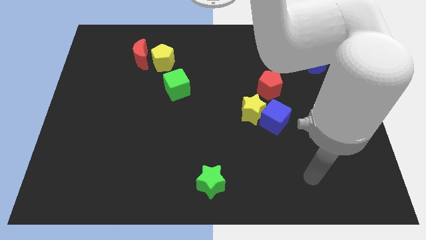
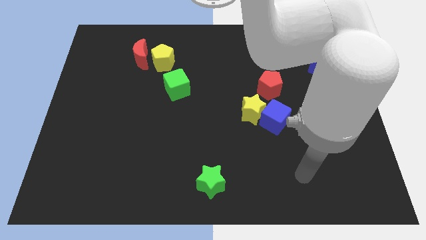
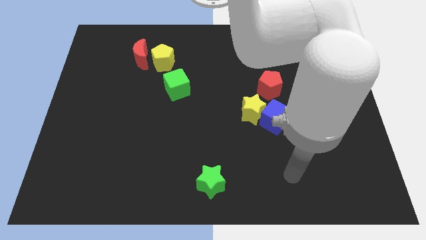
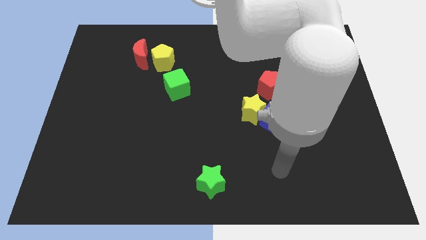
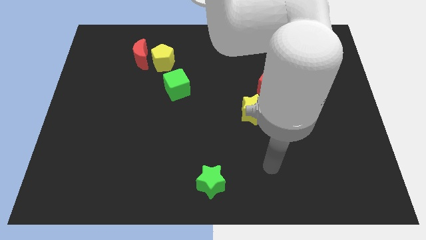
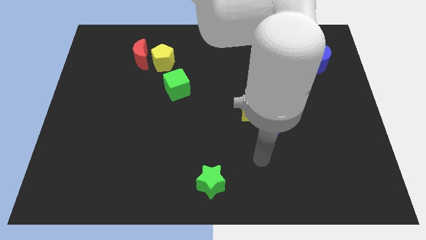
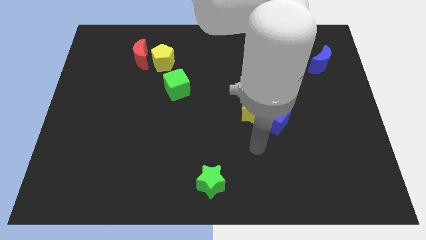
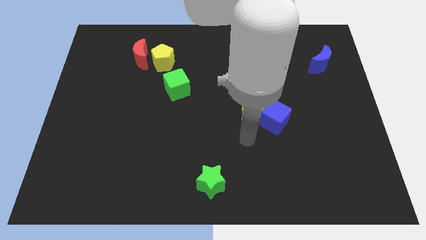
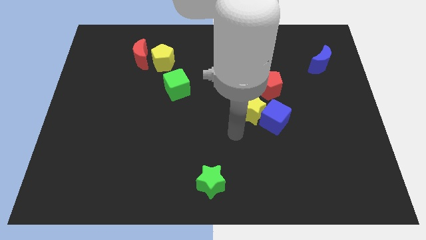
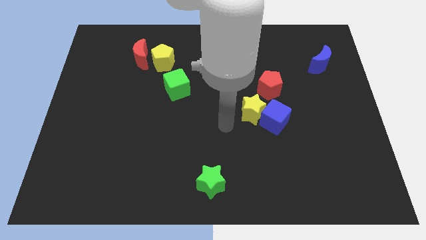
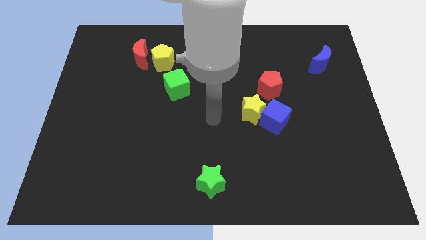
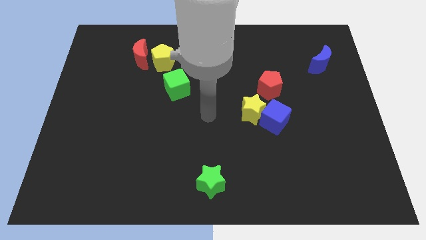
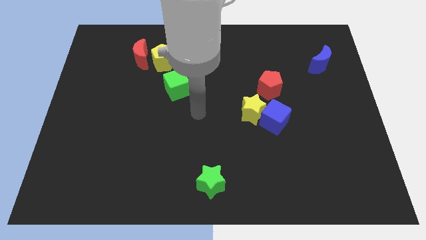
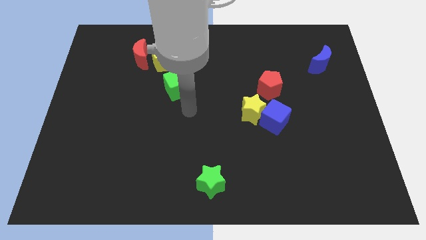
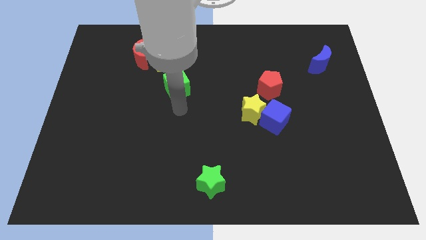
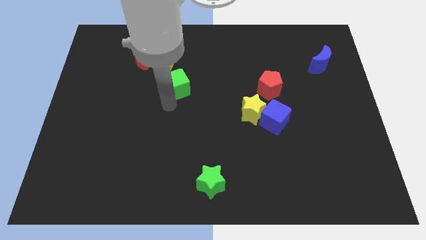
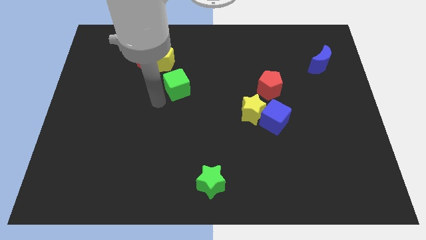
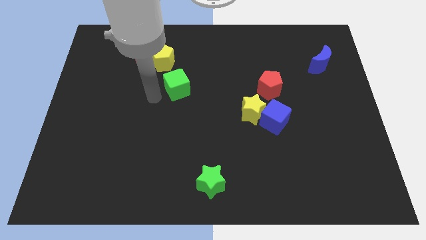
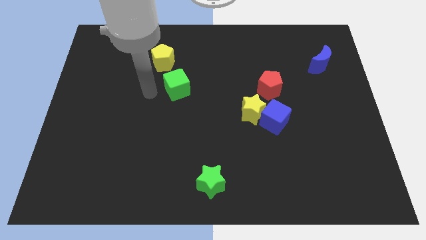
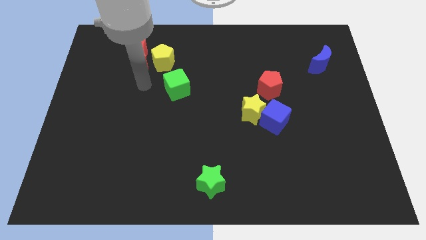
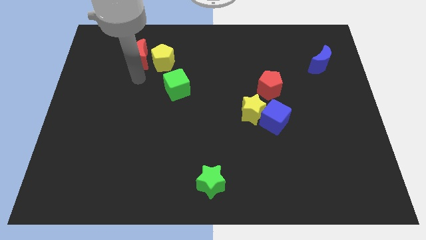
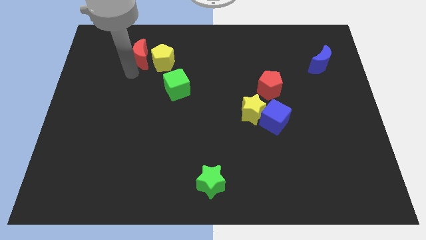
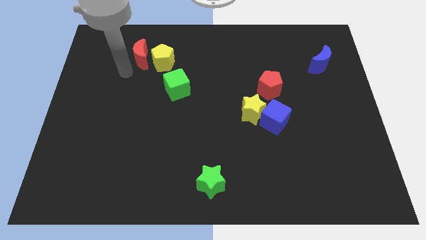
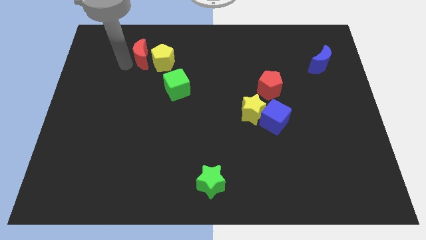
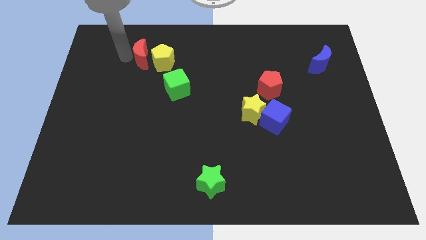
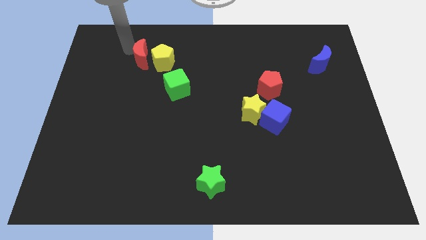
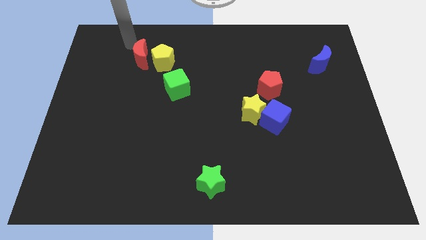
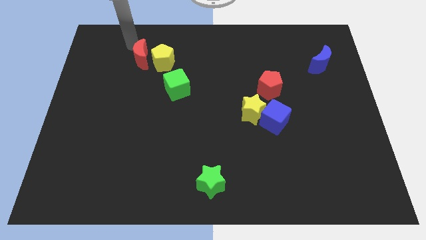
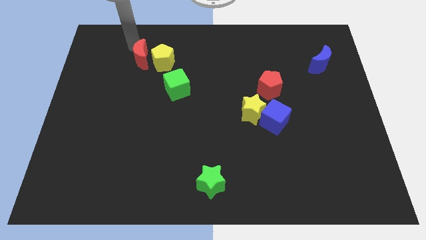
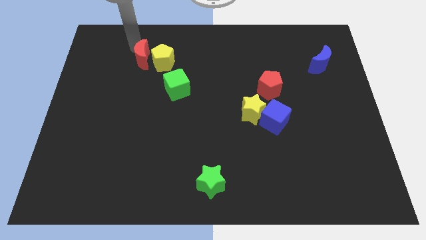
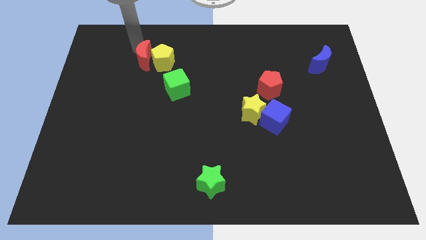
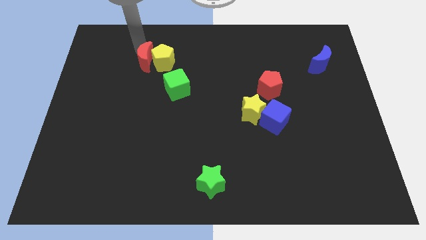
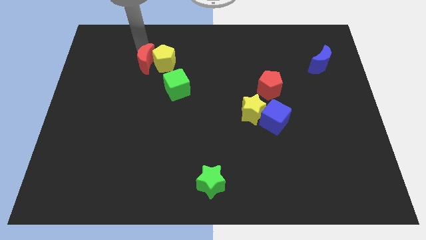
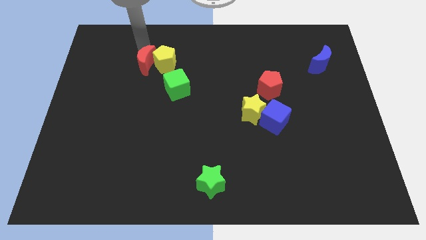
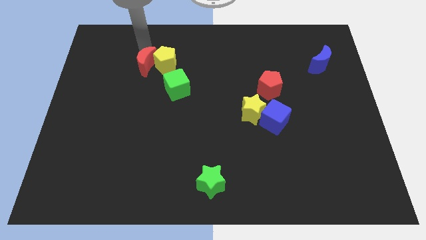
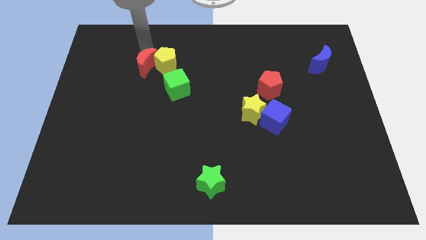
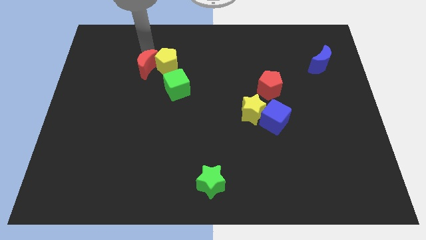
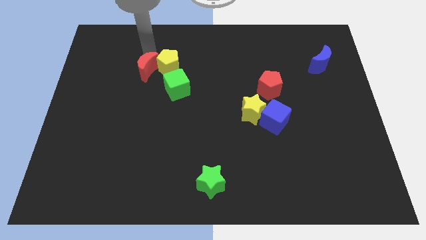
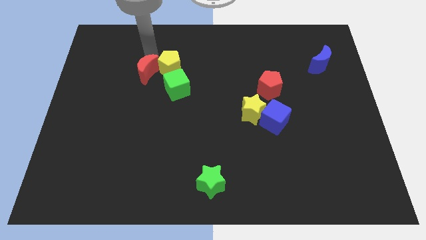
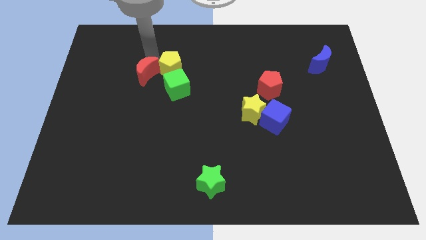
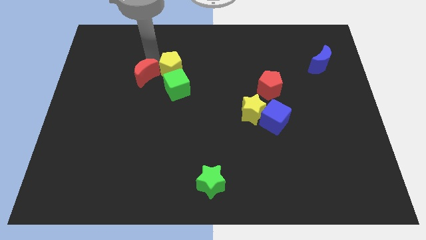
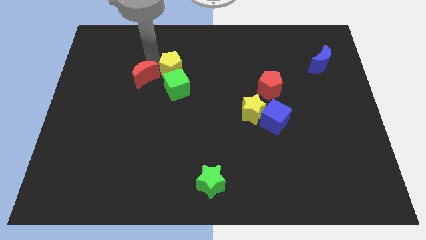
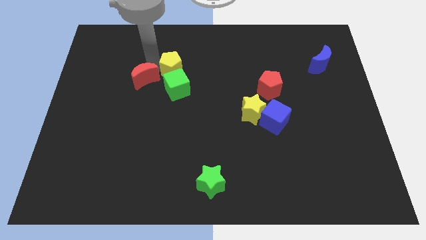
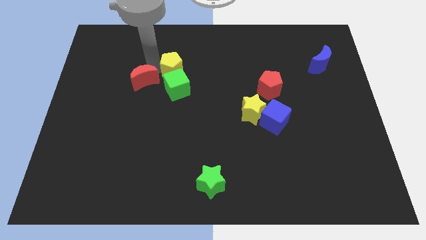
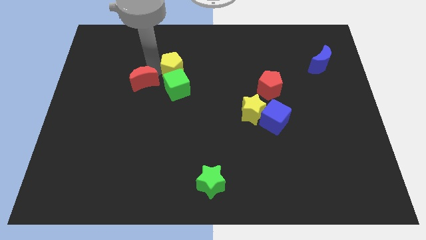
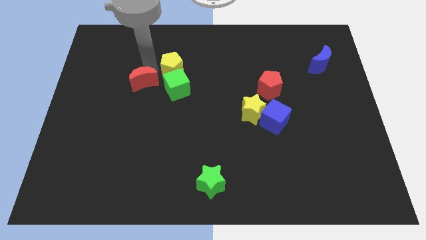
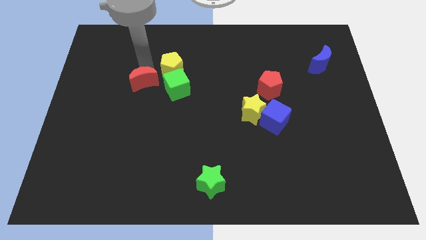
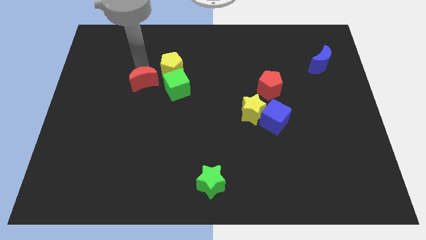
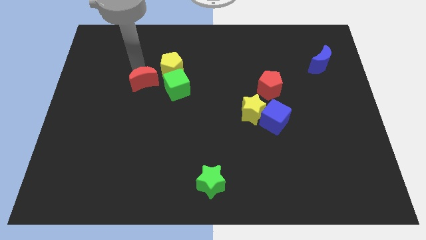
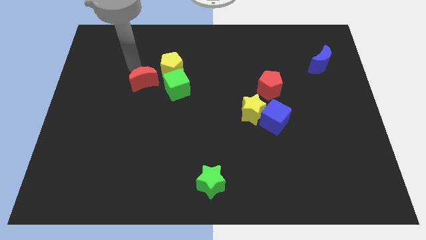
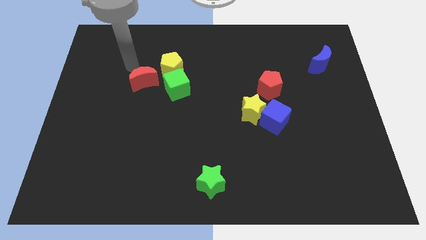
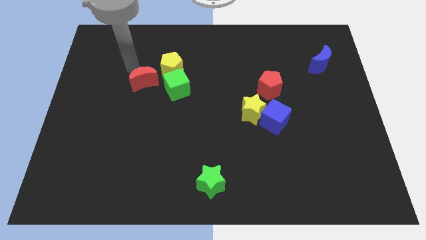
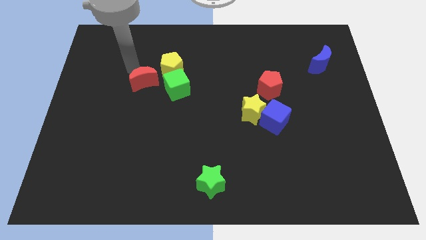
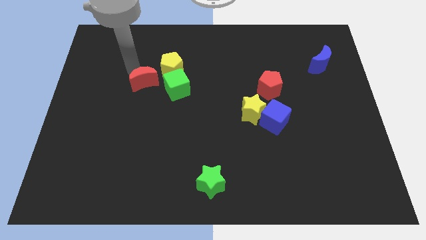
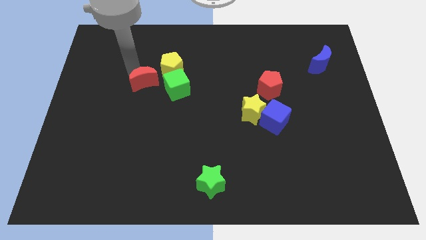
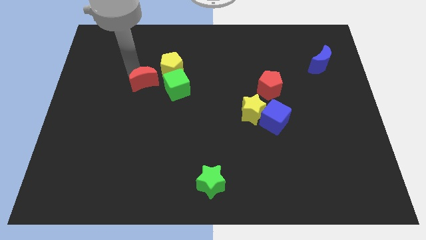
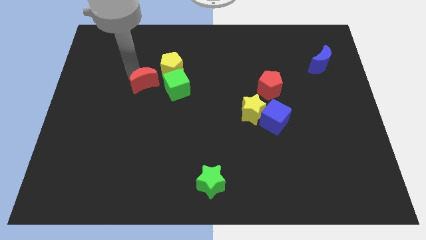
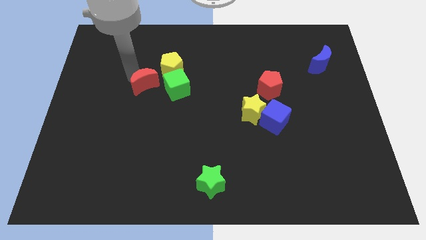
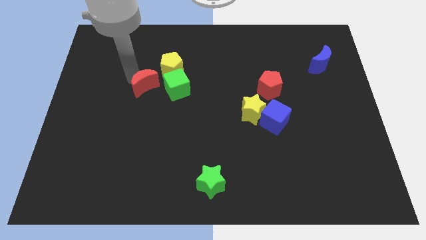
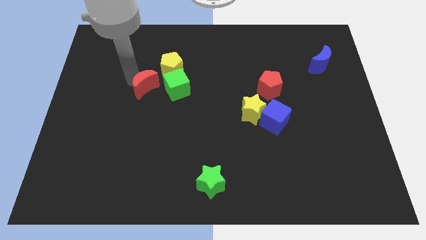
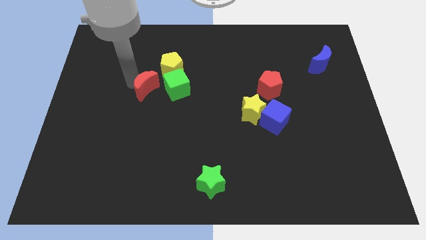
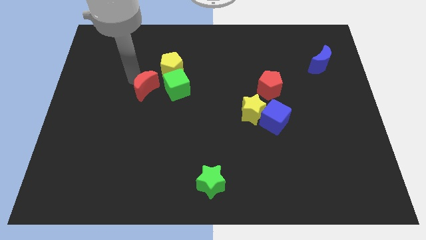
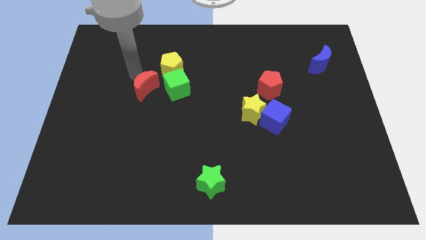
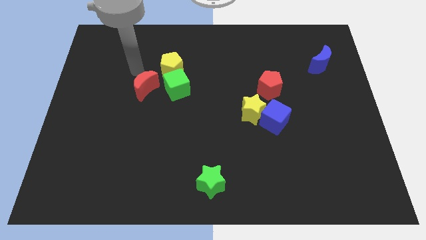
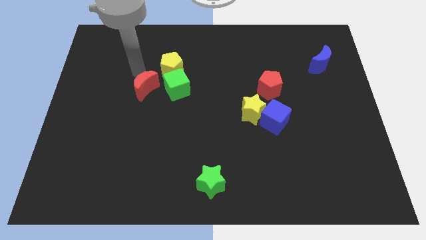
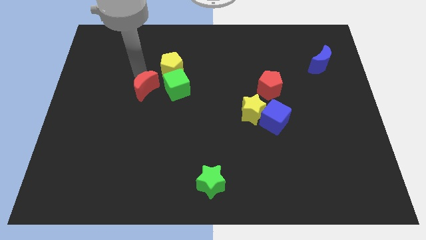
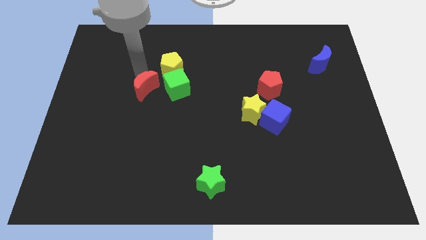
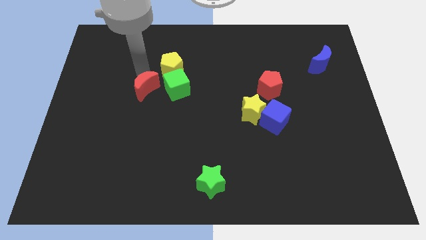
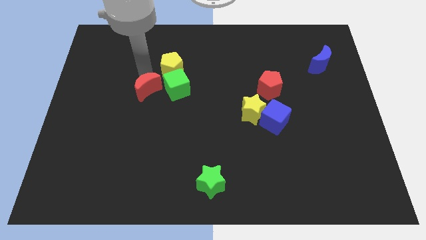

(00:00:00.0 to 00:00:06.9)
move the red moon diagonally down and to the left of the green cube

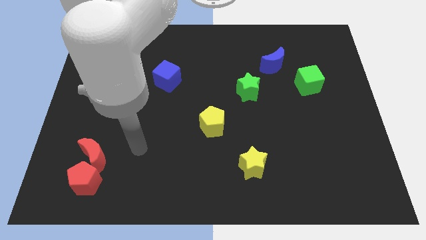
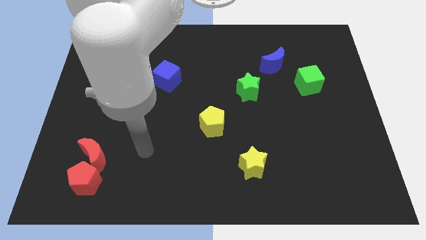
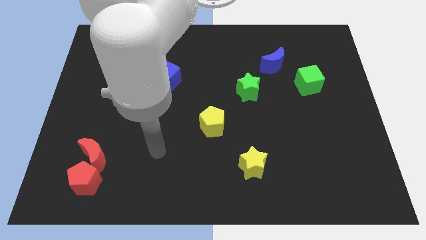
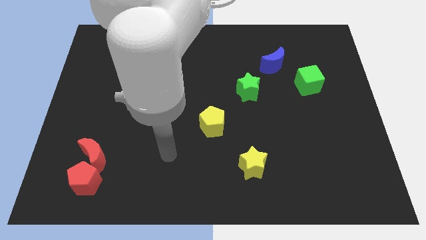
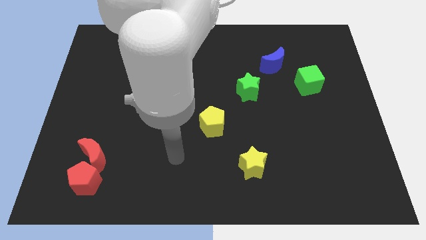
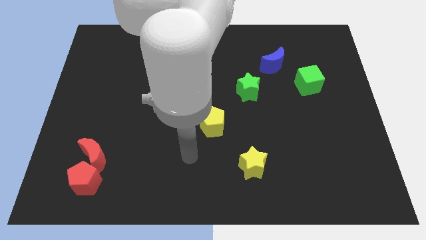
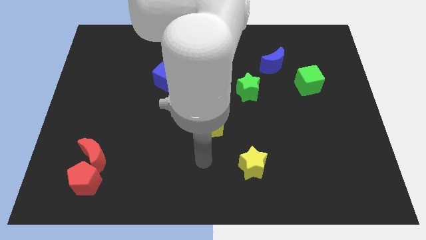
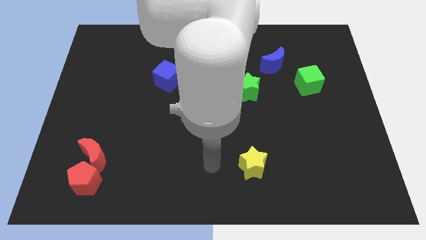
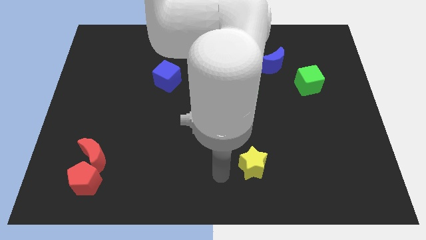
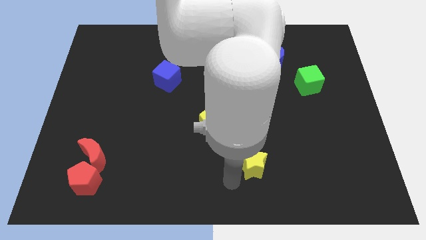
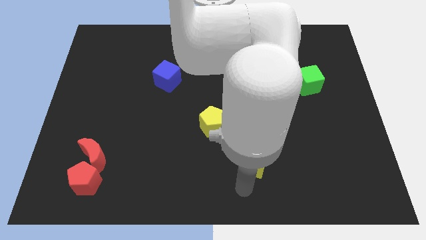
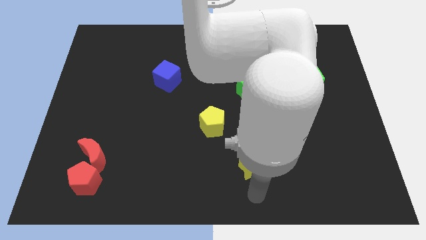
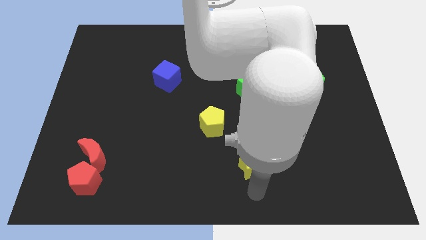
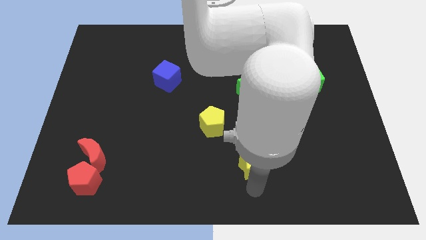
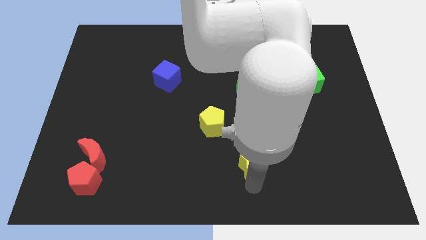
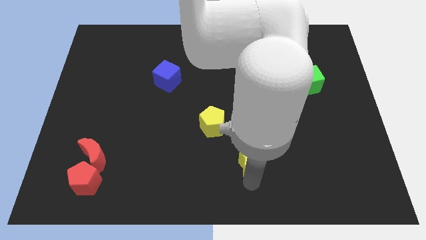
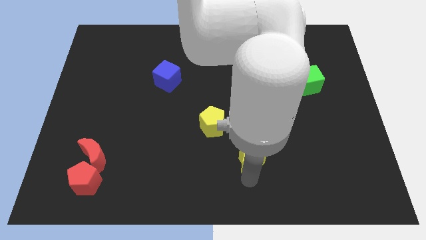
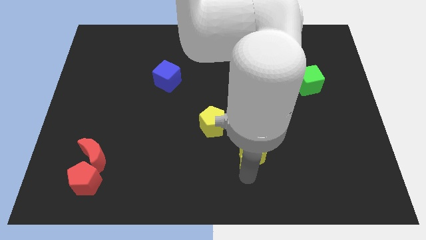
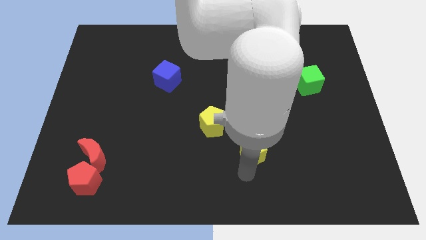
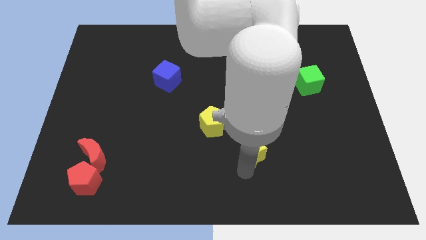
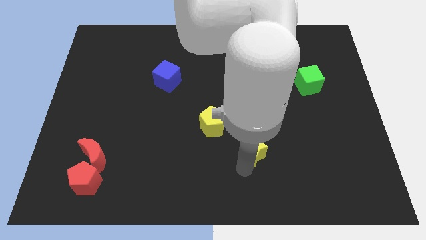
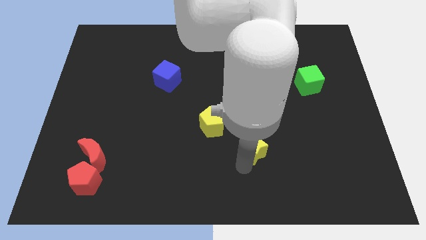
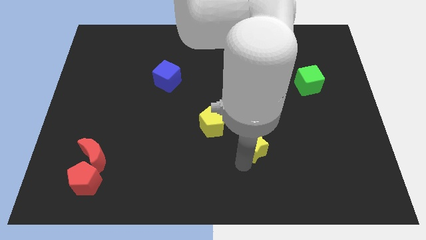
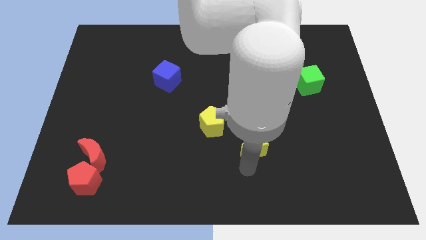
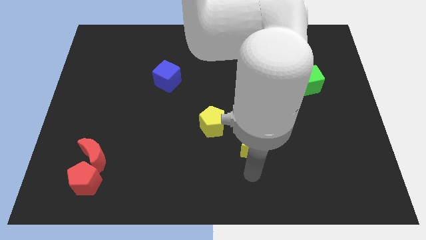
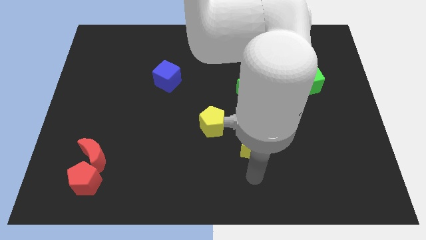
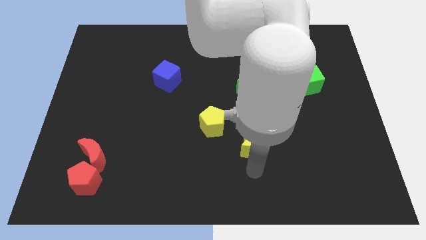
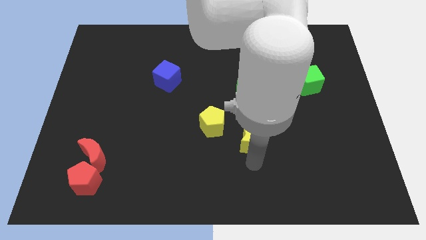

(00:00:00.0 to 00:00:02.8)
move the yellow star below the green star
